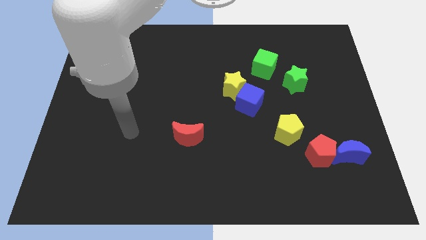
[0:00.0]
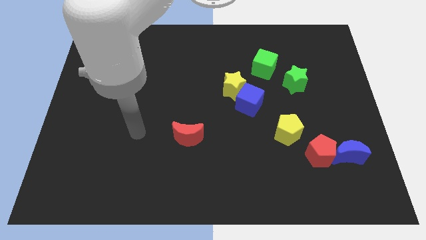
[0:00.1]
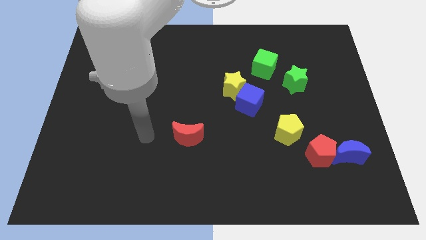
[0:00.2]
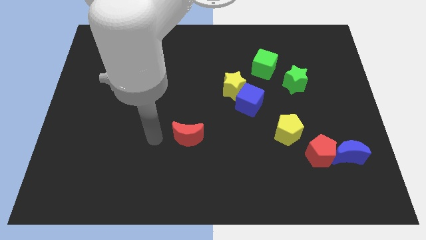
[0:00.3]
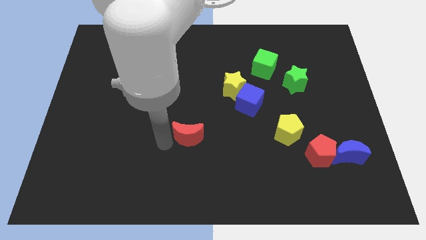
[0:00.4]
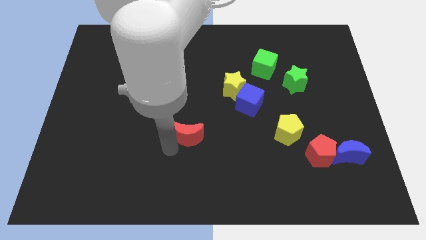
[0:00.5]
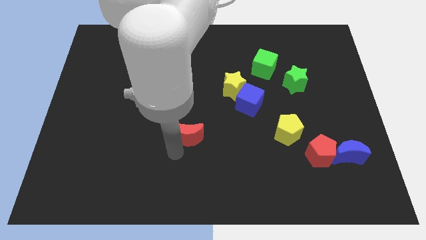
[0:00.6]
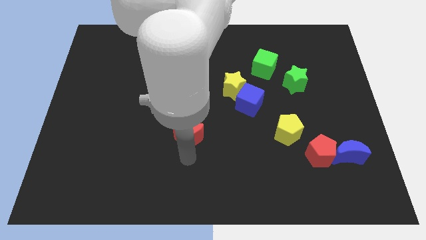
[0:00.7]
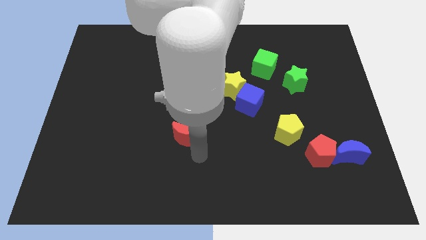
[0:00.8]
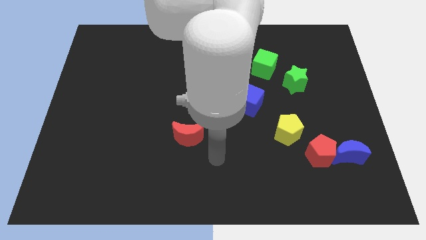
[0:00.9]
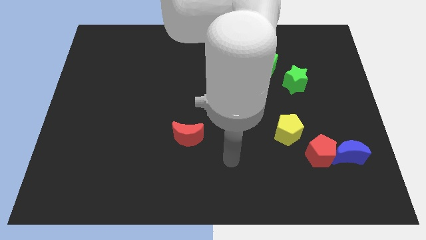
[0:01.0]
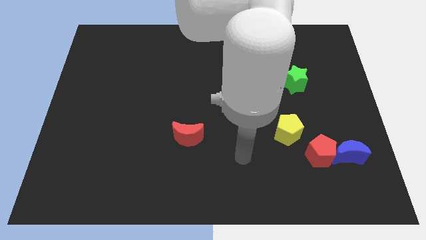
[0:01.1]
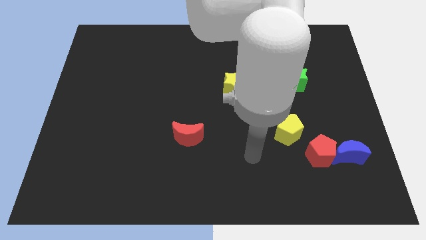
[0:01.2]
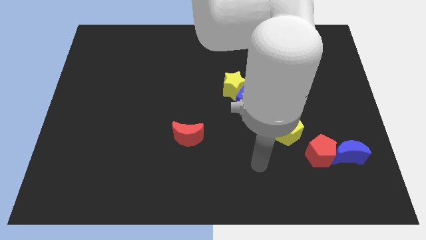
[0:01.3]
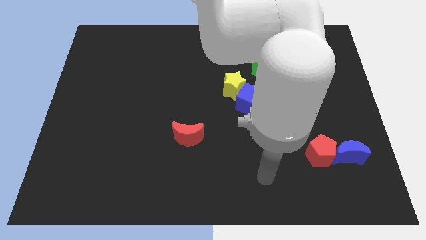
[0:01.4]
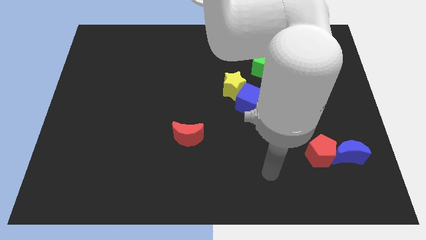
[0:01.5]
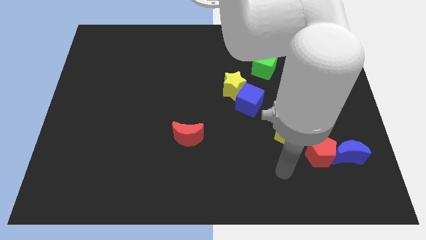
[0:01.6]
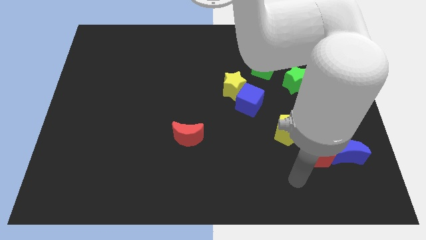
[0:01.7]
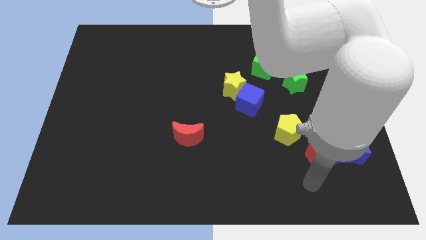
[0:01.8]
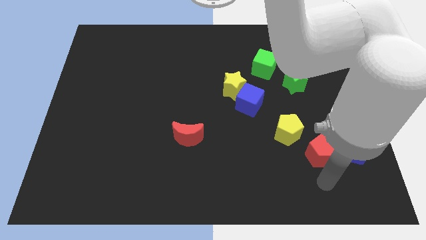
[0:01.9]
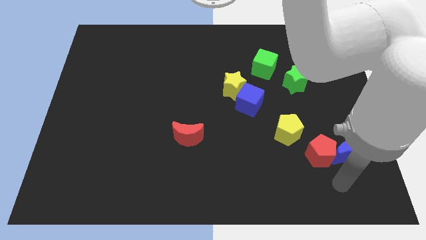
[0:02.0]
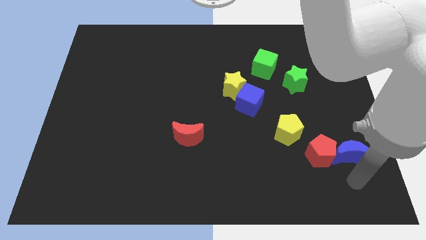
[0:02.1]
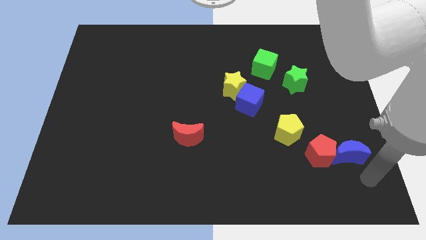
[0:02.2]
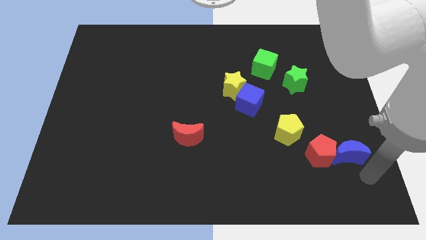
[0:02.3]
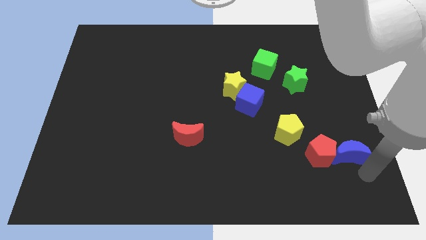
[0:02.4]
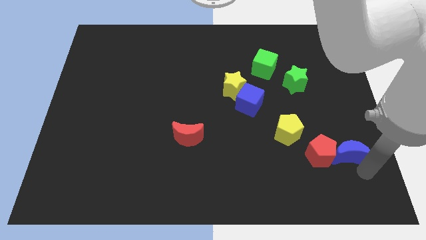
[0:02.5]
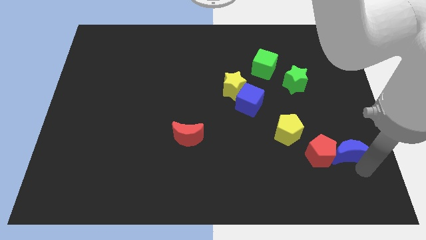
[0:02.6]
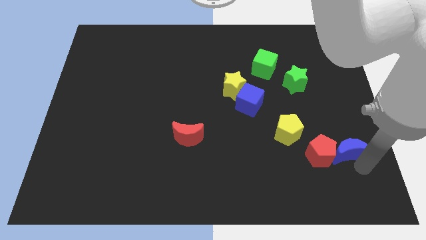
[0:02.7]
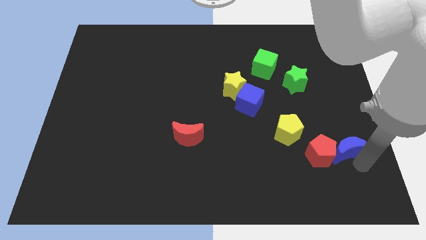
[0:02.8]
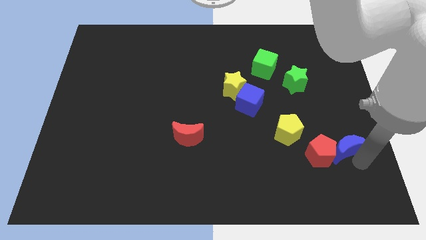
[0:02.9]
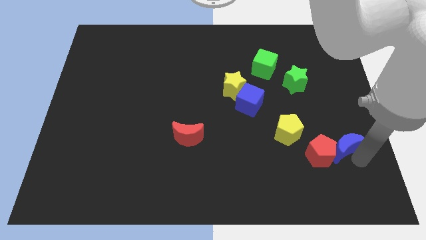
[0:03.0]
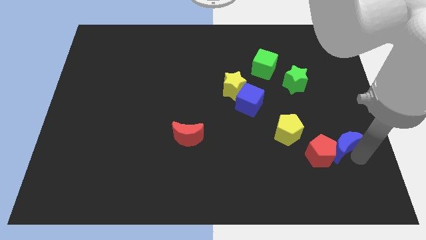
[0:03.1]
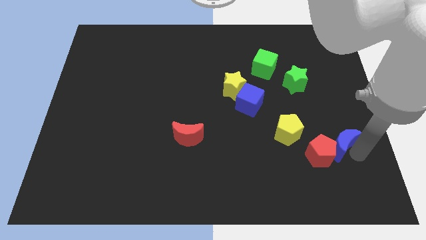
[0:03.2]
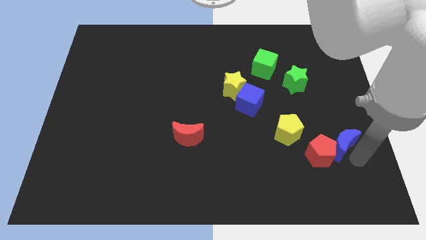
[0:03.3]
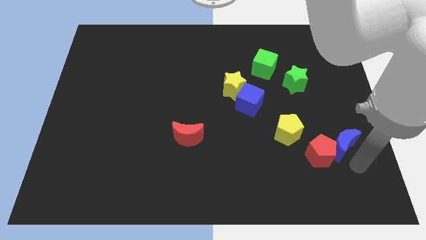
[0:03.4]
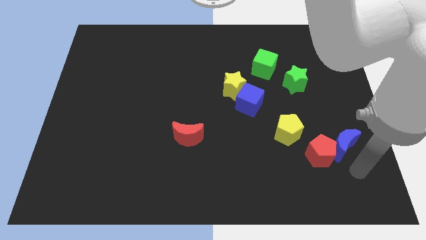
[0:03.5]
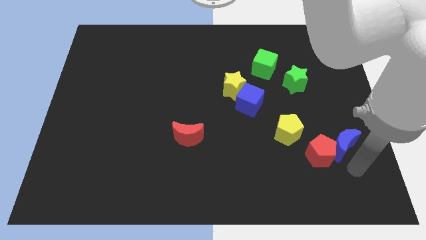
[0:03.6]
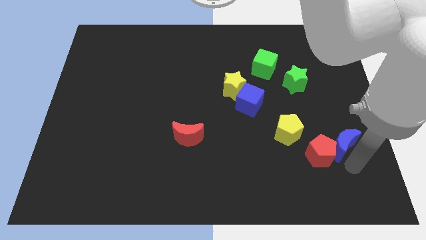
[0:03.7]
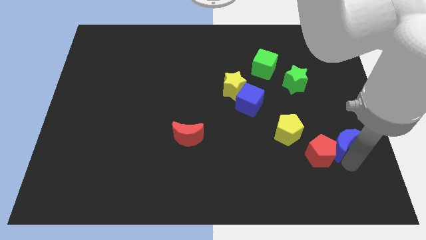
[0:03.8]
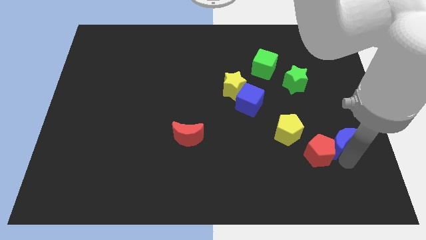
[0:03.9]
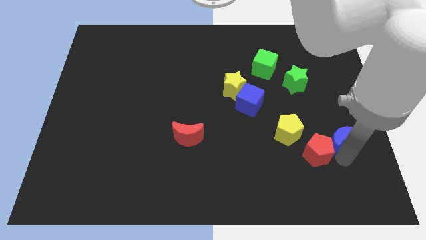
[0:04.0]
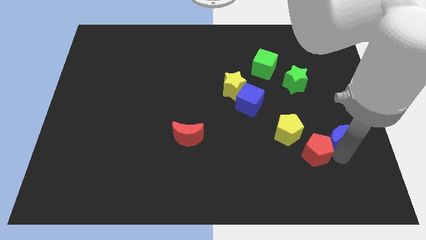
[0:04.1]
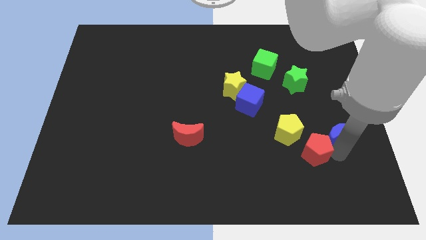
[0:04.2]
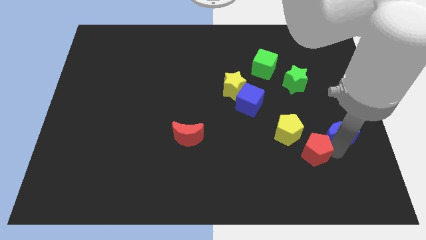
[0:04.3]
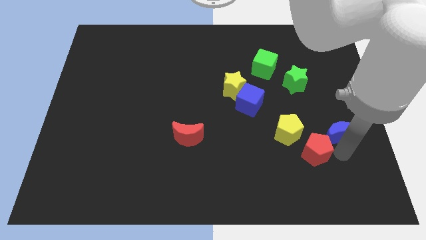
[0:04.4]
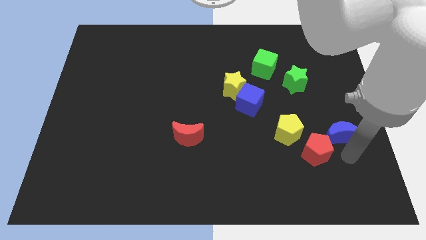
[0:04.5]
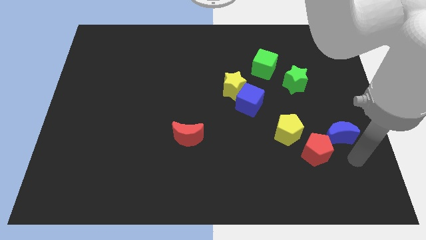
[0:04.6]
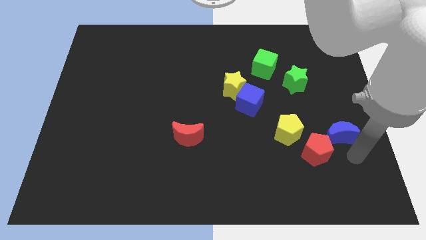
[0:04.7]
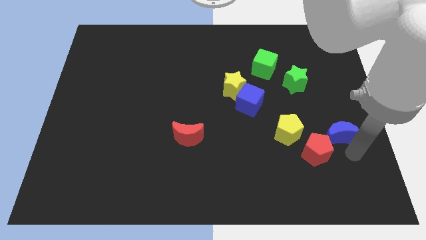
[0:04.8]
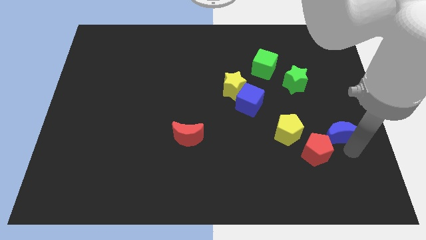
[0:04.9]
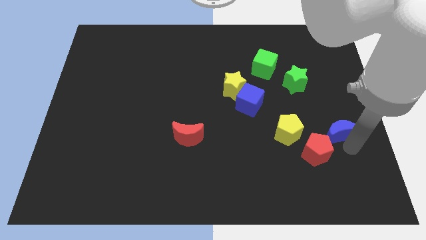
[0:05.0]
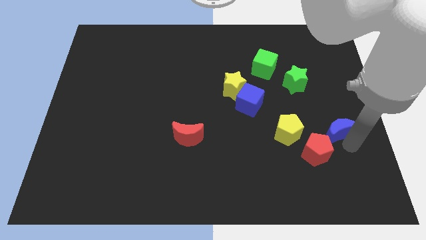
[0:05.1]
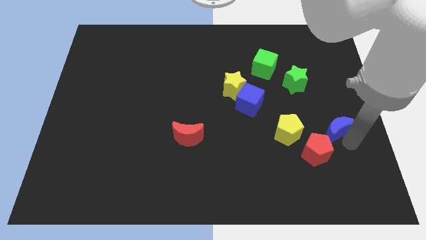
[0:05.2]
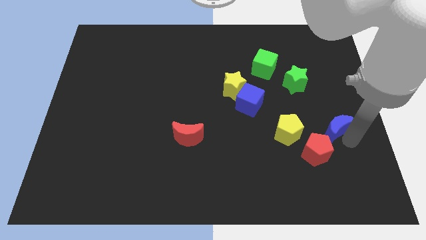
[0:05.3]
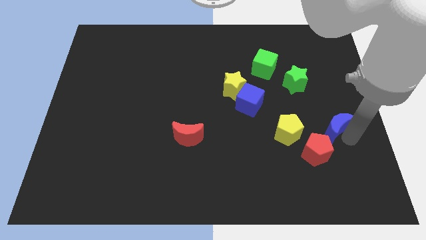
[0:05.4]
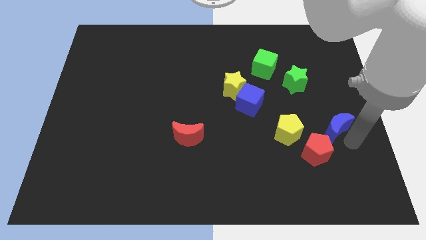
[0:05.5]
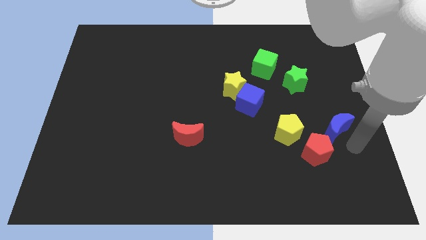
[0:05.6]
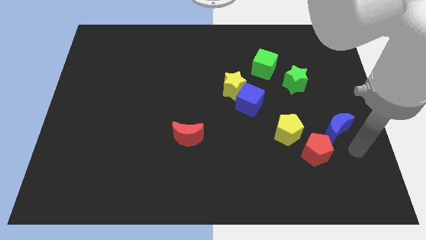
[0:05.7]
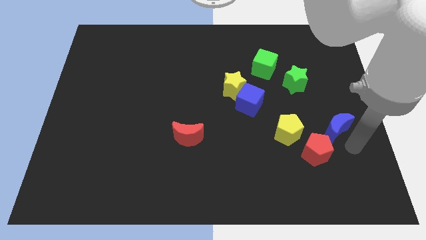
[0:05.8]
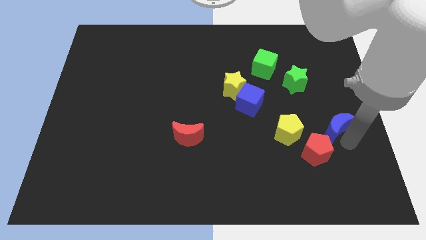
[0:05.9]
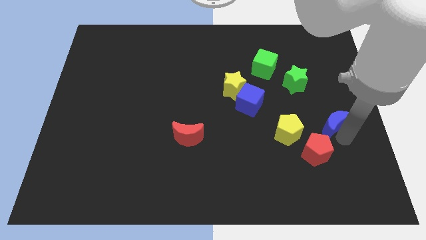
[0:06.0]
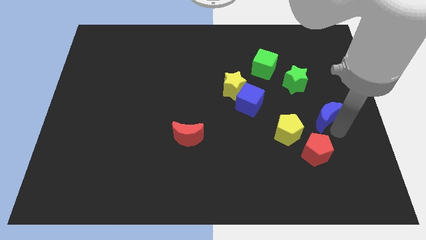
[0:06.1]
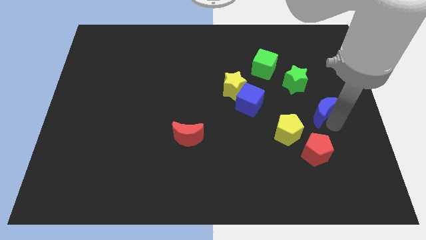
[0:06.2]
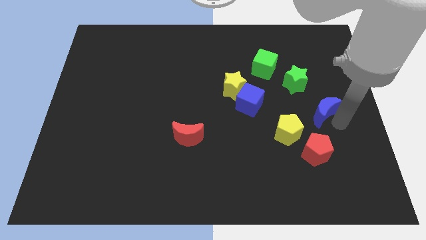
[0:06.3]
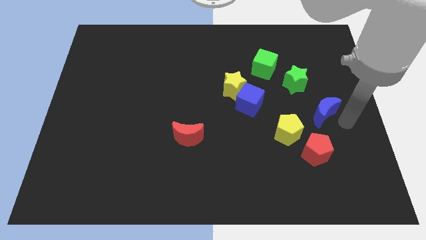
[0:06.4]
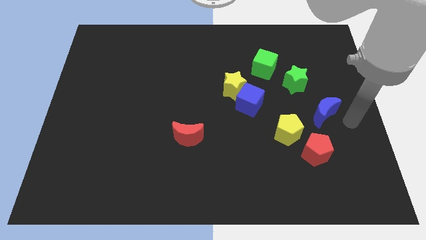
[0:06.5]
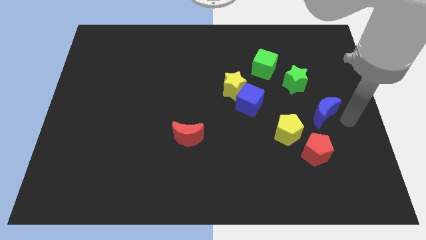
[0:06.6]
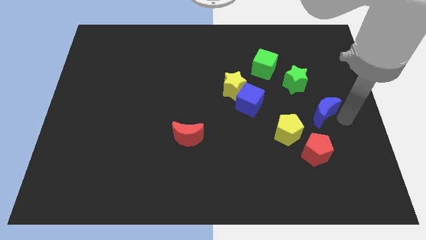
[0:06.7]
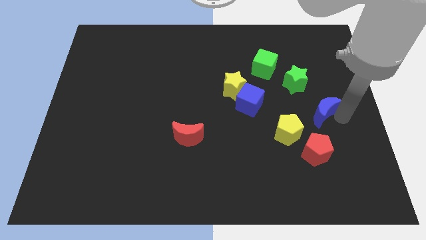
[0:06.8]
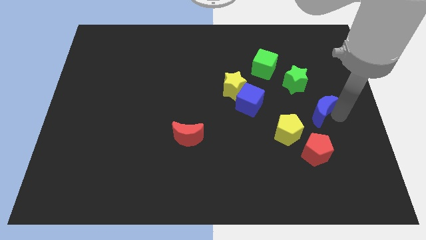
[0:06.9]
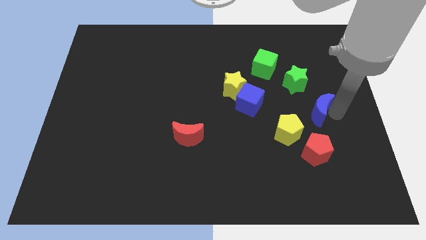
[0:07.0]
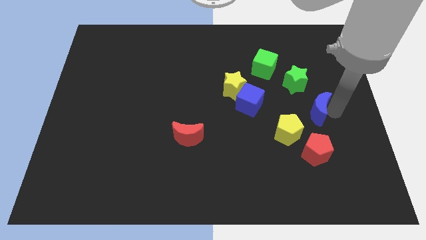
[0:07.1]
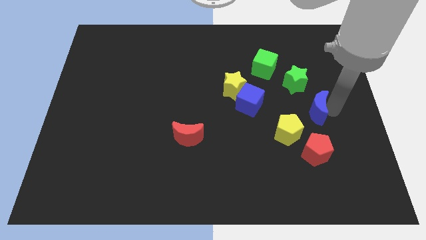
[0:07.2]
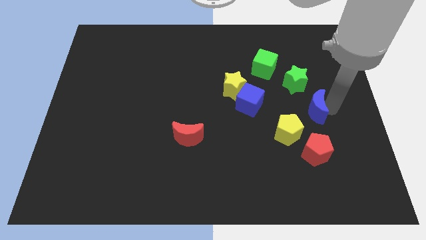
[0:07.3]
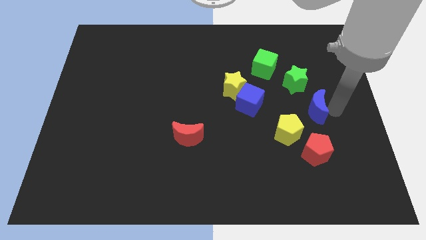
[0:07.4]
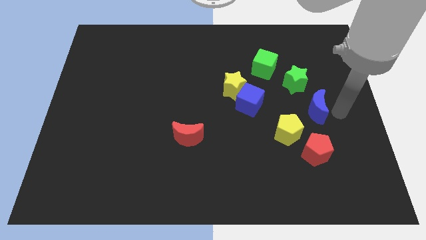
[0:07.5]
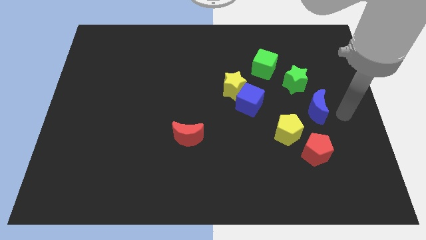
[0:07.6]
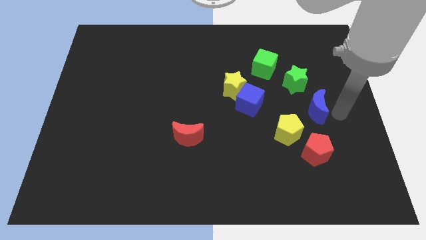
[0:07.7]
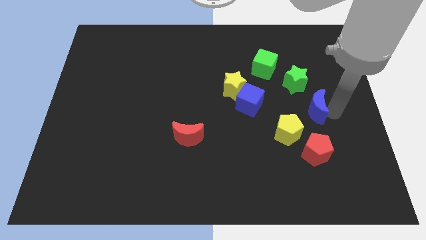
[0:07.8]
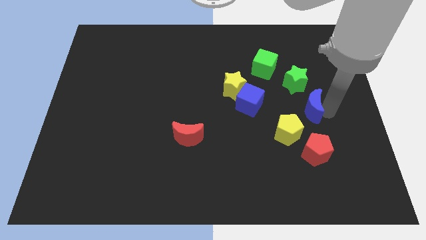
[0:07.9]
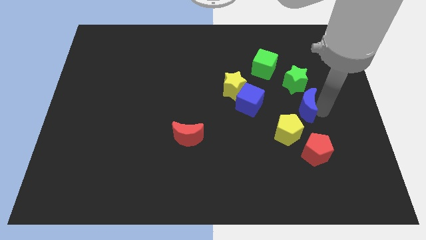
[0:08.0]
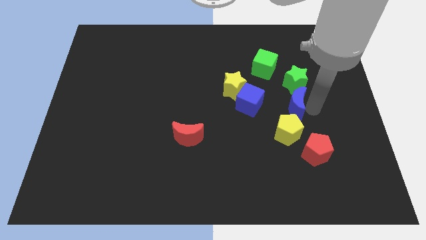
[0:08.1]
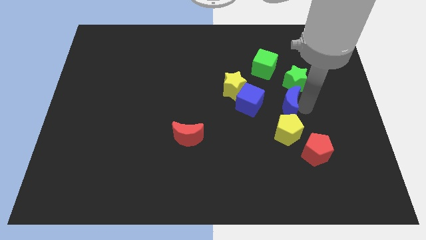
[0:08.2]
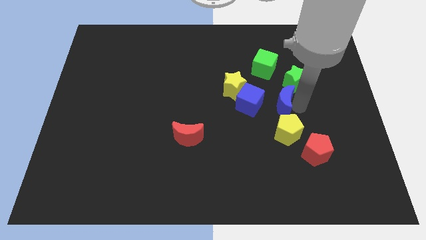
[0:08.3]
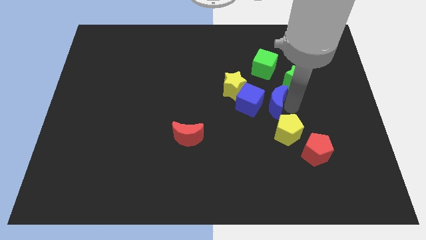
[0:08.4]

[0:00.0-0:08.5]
move the blue moon upwards and to the left
